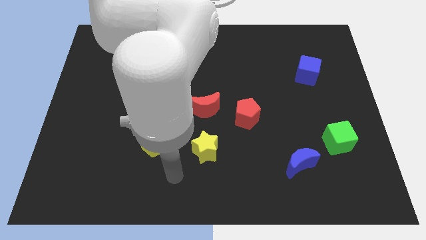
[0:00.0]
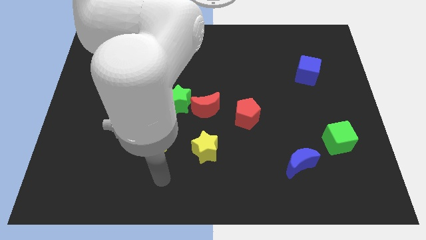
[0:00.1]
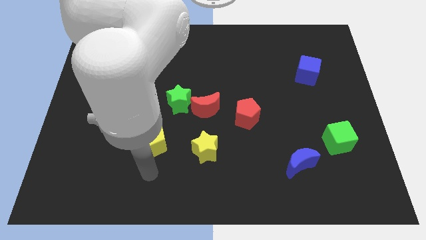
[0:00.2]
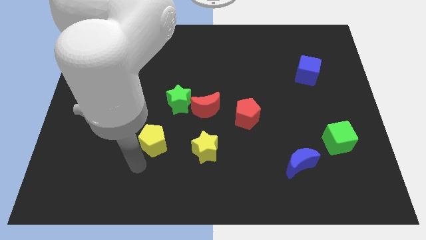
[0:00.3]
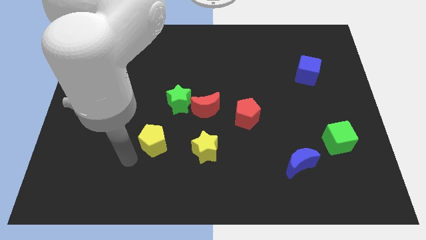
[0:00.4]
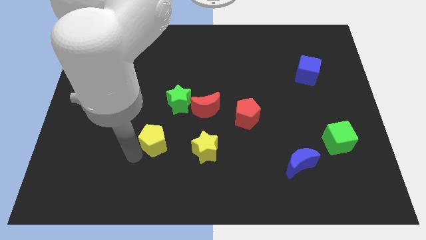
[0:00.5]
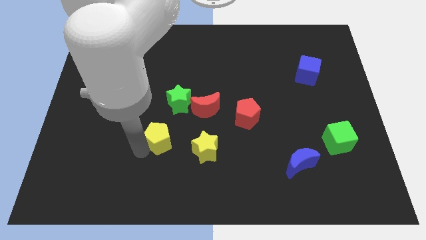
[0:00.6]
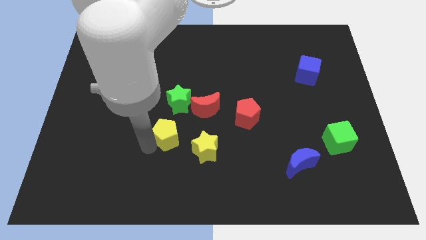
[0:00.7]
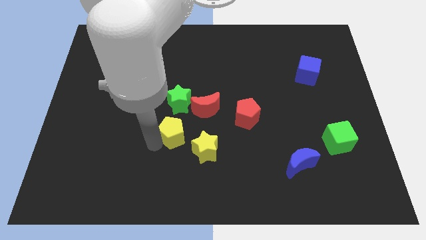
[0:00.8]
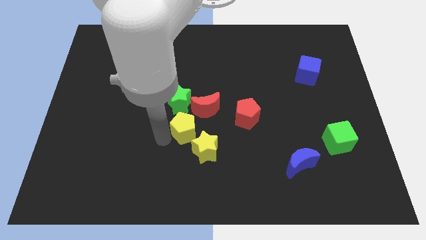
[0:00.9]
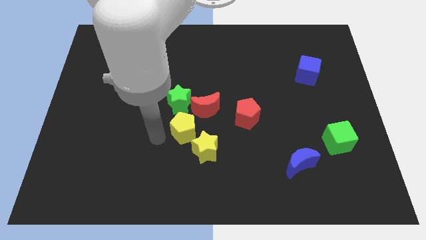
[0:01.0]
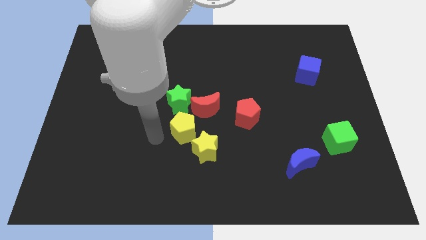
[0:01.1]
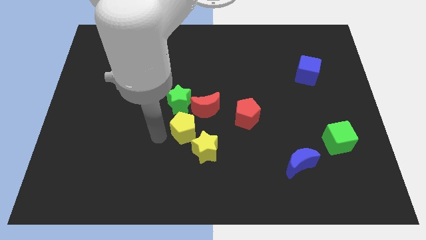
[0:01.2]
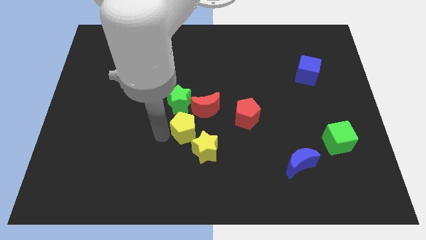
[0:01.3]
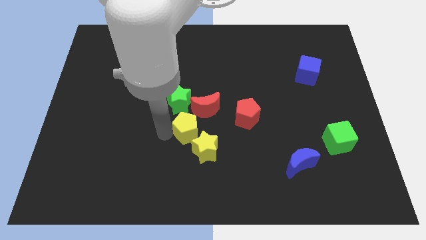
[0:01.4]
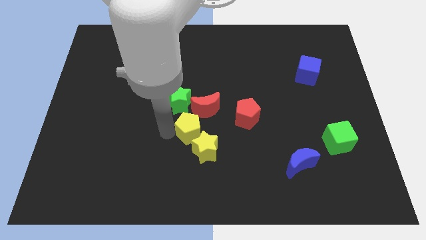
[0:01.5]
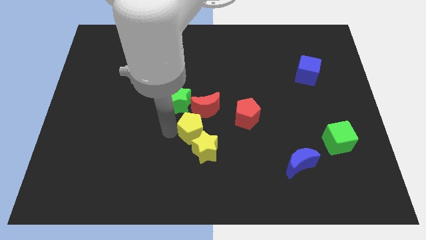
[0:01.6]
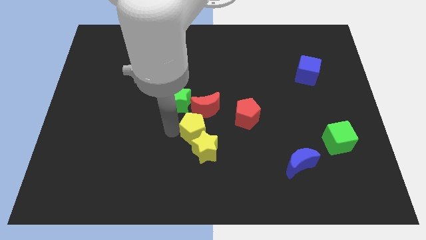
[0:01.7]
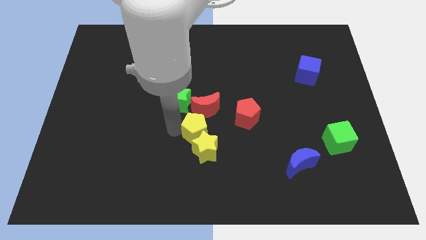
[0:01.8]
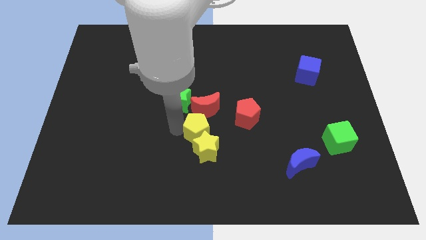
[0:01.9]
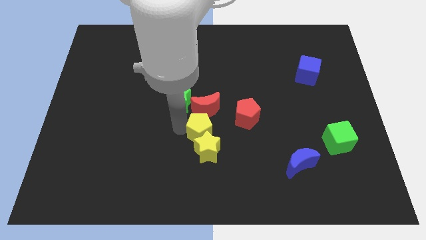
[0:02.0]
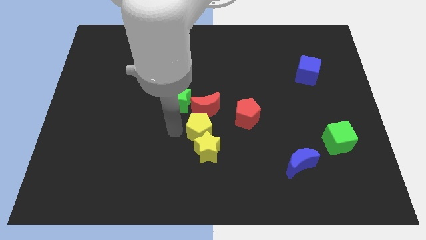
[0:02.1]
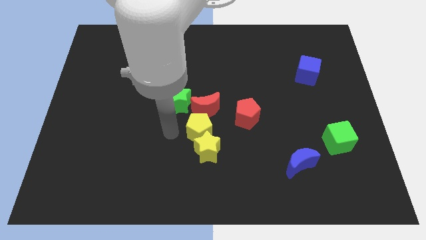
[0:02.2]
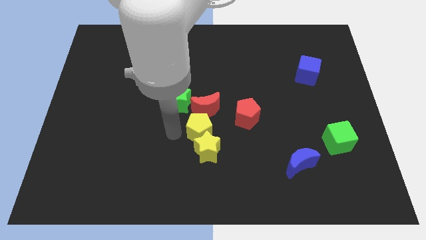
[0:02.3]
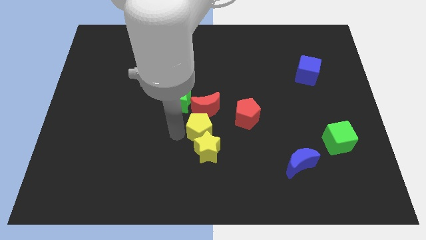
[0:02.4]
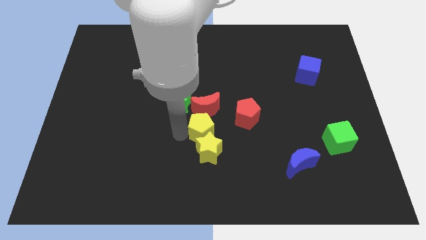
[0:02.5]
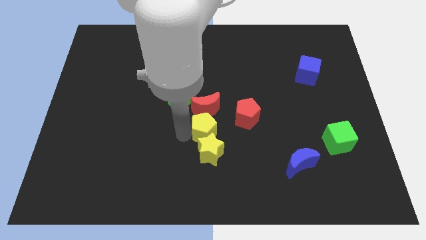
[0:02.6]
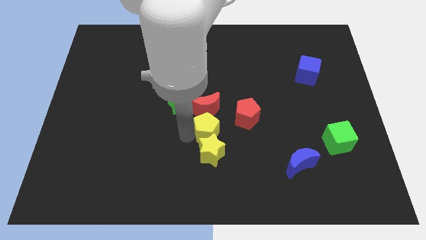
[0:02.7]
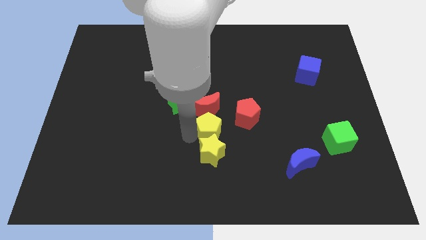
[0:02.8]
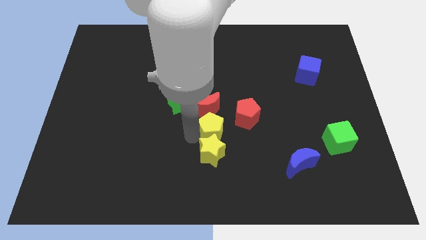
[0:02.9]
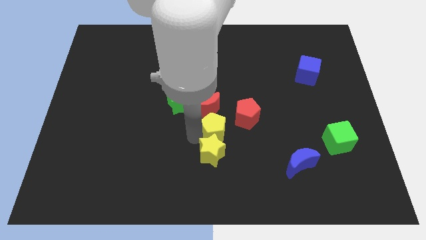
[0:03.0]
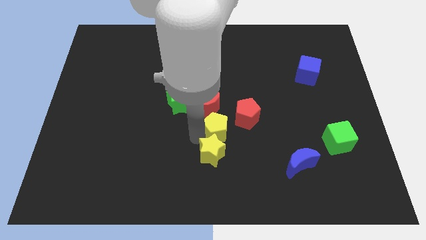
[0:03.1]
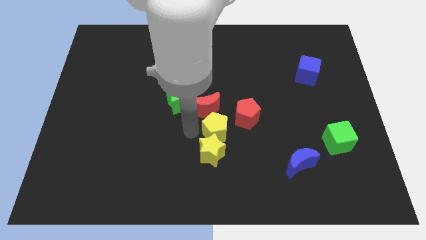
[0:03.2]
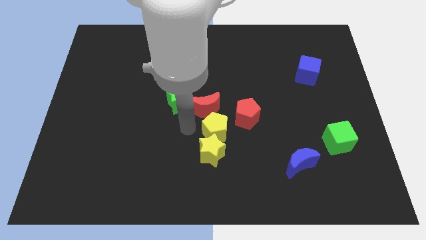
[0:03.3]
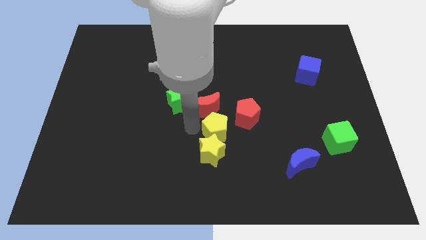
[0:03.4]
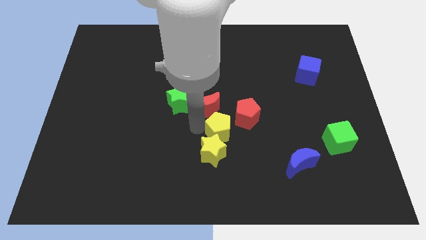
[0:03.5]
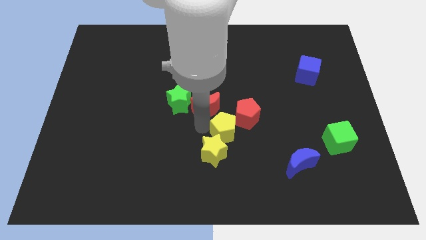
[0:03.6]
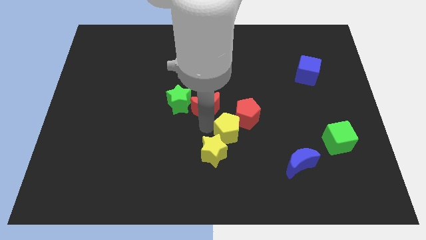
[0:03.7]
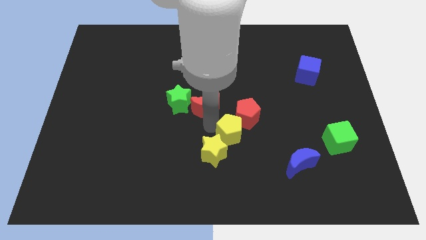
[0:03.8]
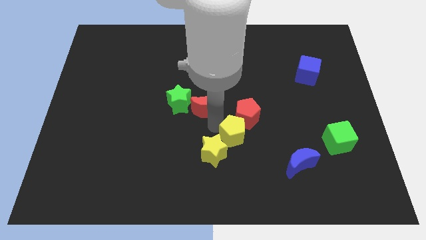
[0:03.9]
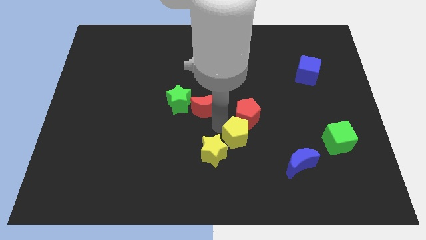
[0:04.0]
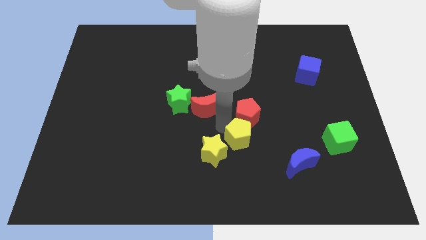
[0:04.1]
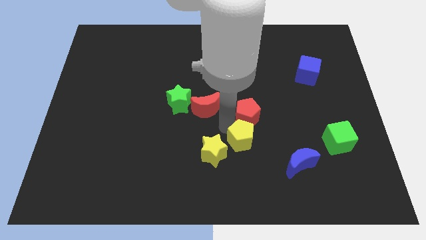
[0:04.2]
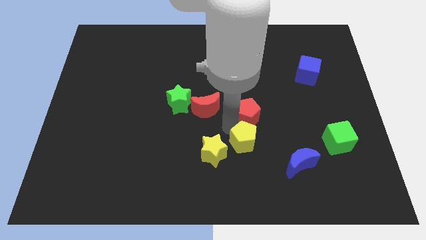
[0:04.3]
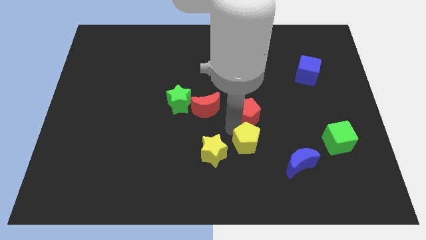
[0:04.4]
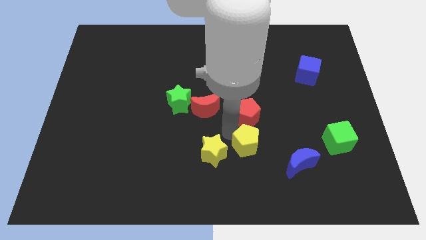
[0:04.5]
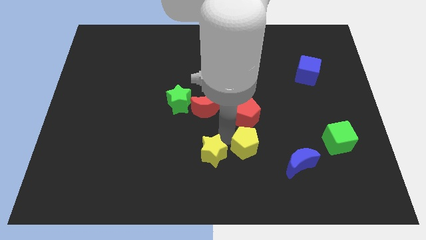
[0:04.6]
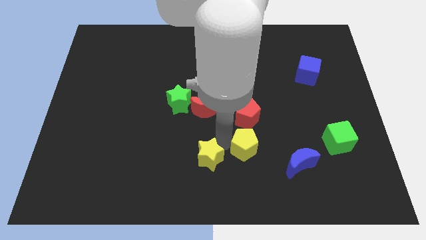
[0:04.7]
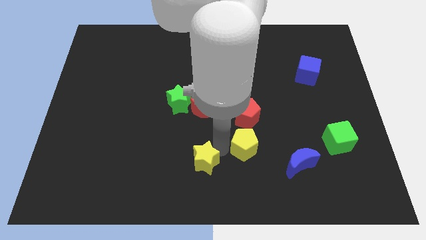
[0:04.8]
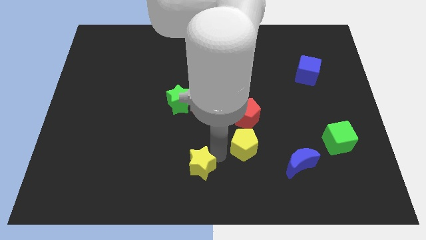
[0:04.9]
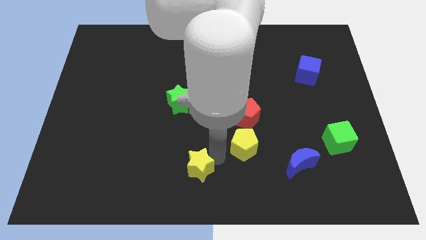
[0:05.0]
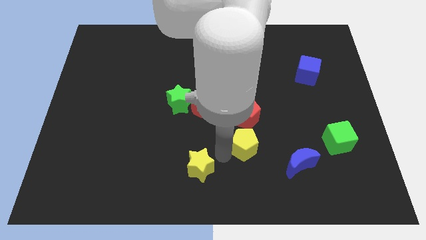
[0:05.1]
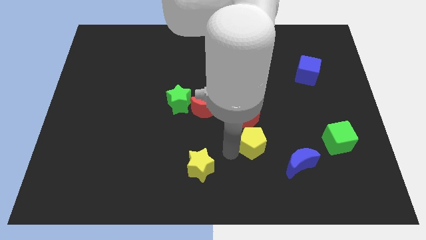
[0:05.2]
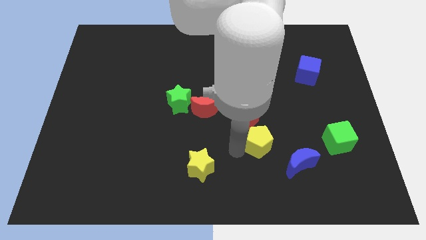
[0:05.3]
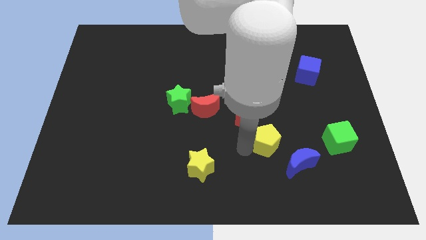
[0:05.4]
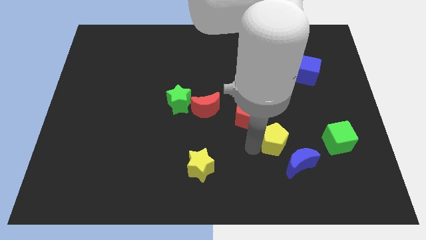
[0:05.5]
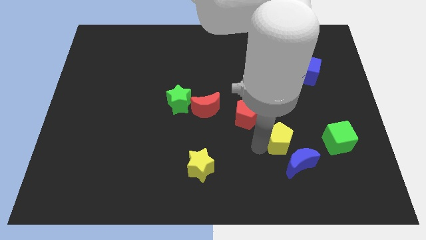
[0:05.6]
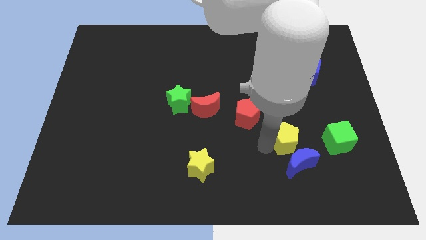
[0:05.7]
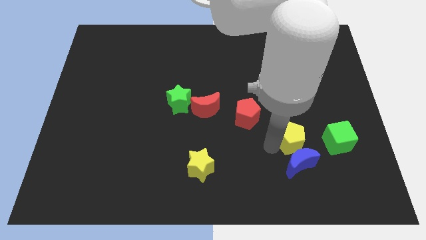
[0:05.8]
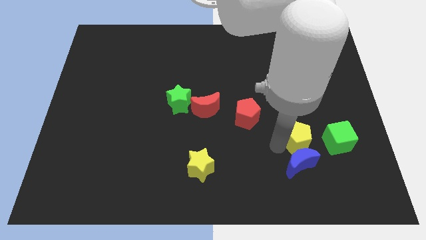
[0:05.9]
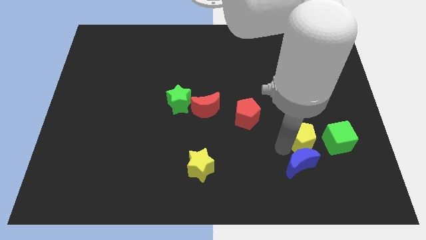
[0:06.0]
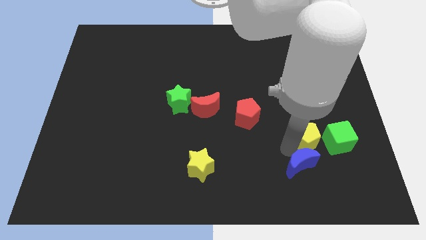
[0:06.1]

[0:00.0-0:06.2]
move the yellow pentagon to the top left side of the green cube

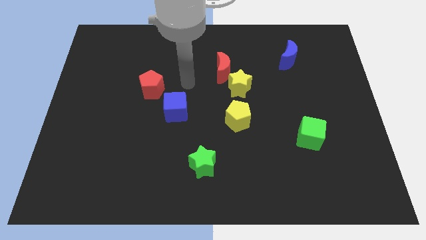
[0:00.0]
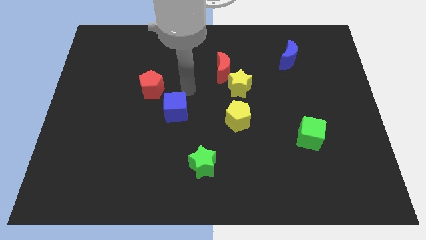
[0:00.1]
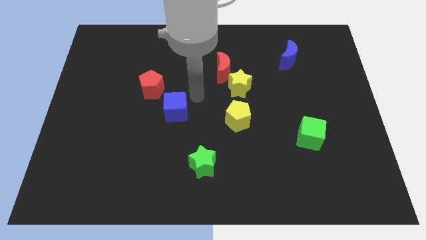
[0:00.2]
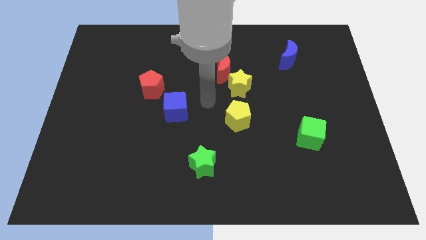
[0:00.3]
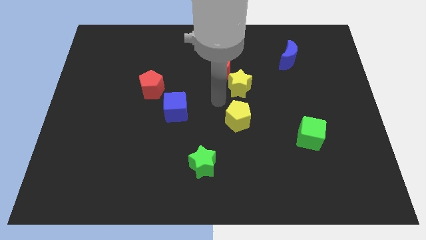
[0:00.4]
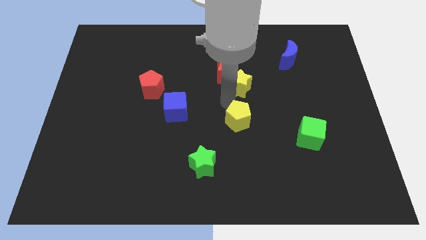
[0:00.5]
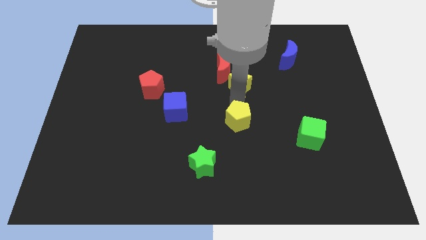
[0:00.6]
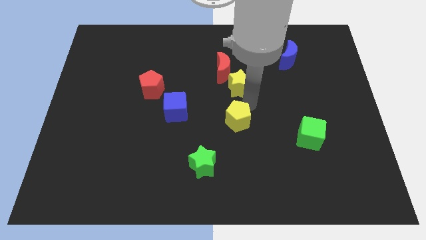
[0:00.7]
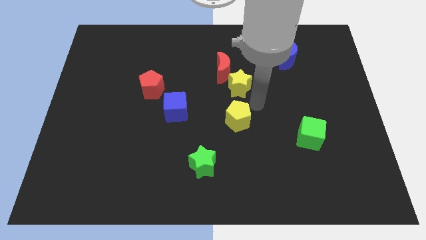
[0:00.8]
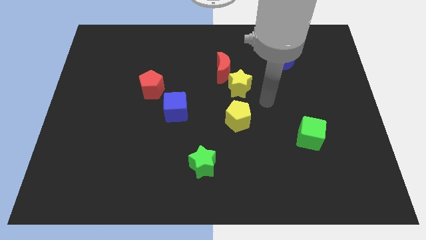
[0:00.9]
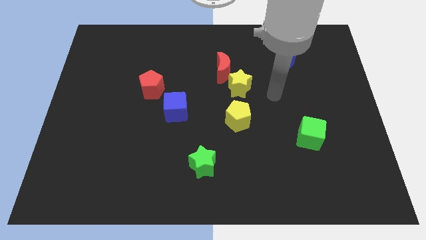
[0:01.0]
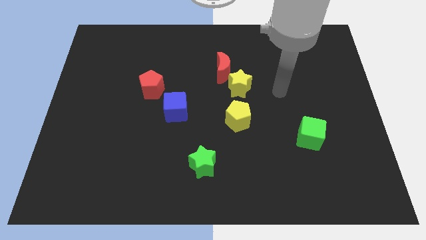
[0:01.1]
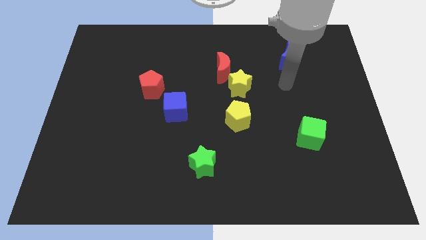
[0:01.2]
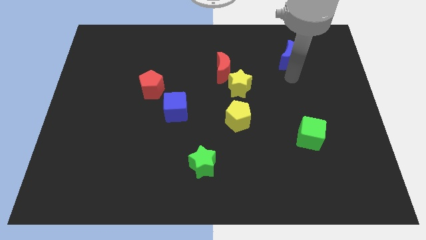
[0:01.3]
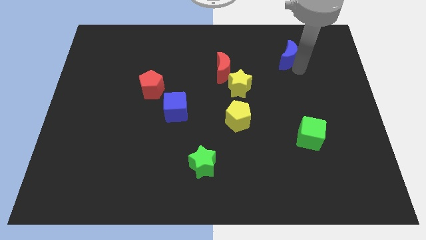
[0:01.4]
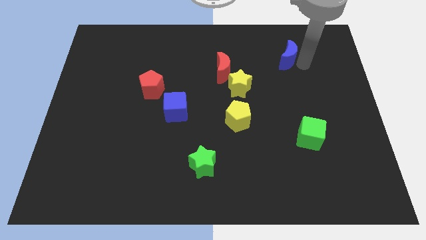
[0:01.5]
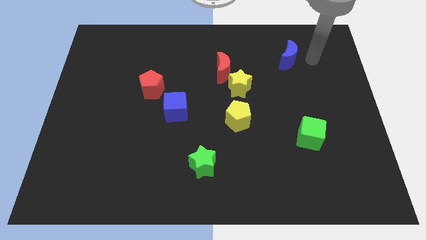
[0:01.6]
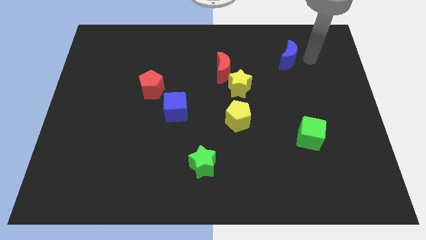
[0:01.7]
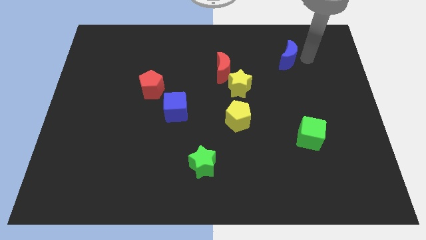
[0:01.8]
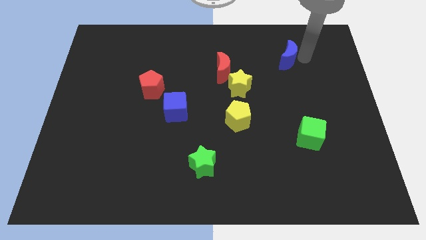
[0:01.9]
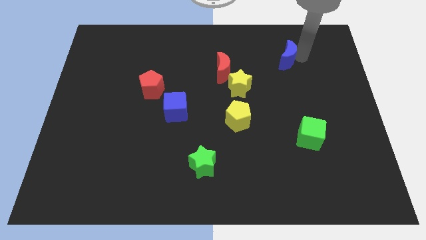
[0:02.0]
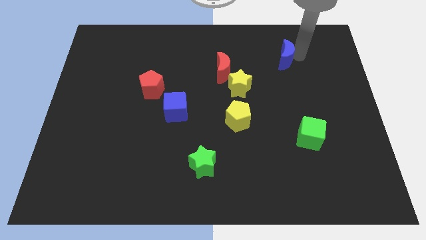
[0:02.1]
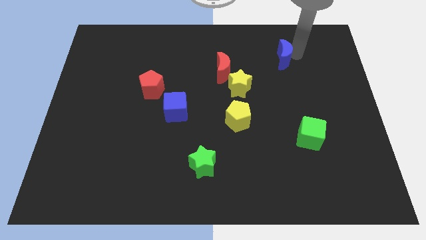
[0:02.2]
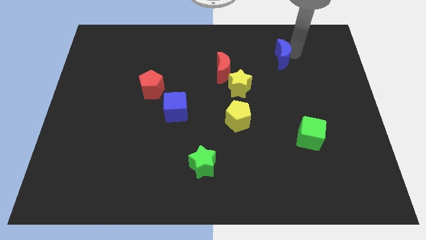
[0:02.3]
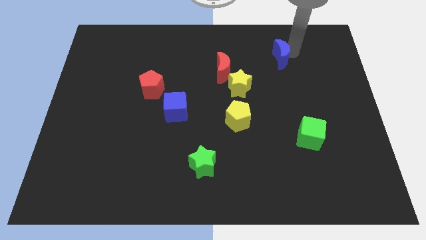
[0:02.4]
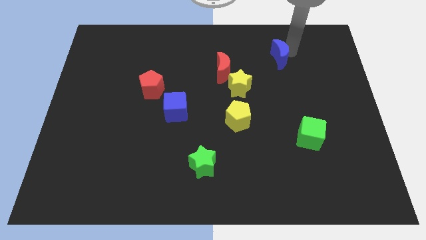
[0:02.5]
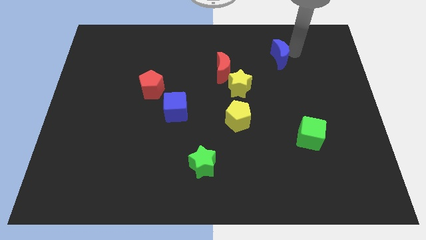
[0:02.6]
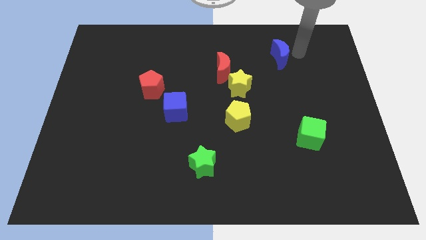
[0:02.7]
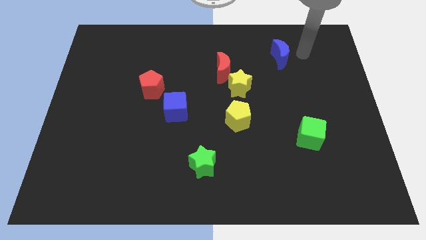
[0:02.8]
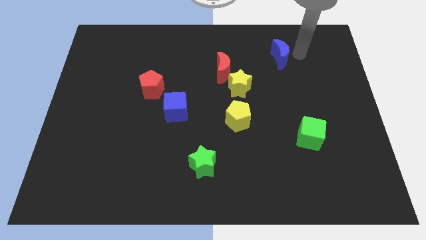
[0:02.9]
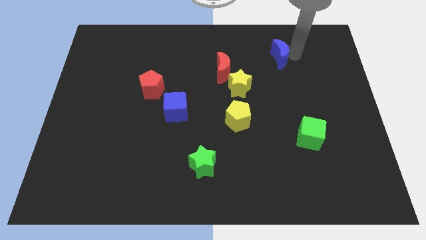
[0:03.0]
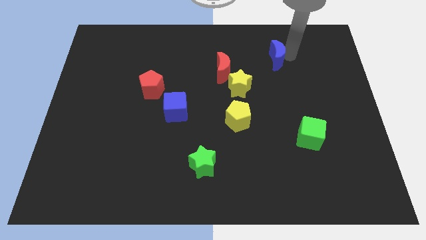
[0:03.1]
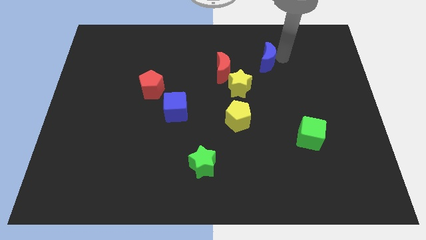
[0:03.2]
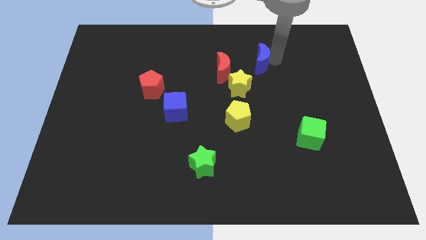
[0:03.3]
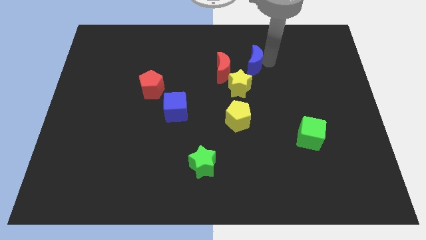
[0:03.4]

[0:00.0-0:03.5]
move the blue moon to the top side of the yellow star
